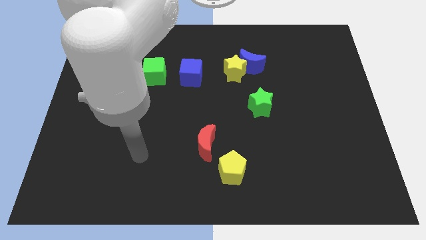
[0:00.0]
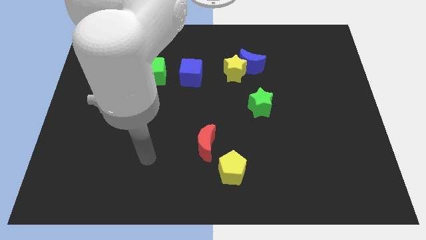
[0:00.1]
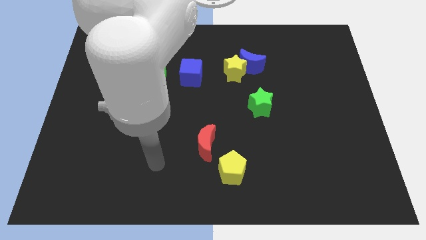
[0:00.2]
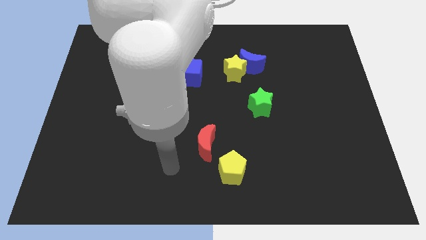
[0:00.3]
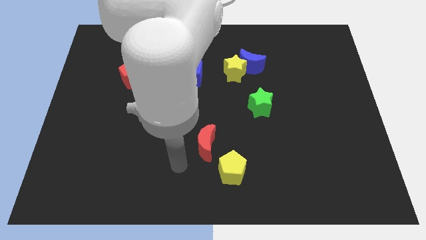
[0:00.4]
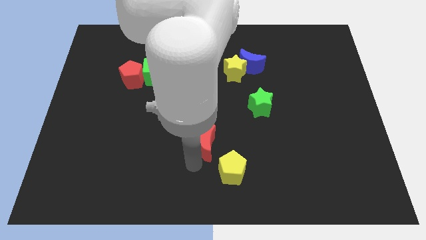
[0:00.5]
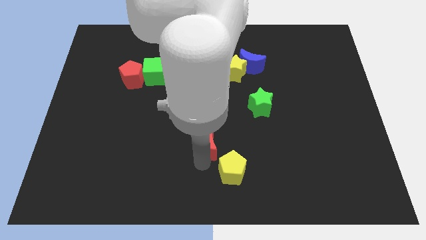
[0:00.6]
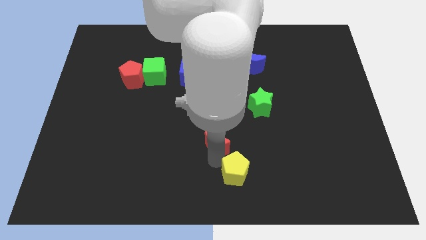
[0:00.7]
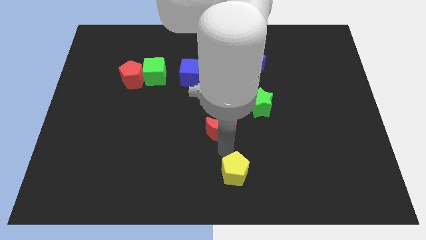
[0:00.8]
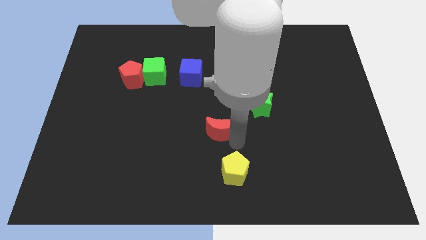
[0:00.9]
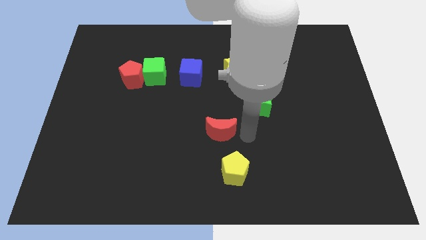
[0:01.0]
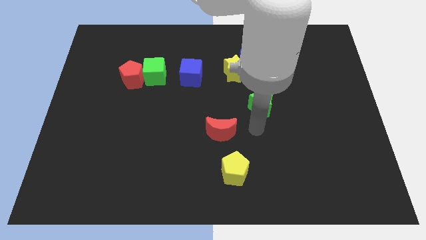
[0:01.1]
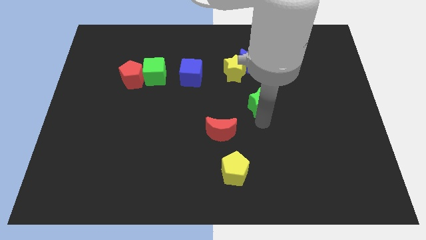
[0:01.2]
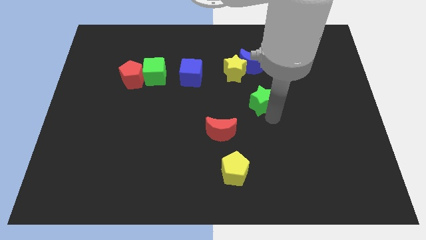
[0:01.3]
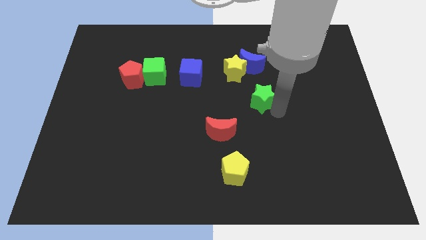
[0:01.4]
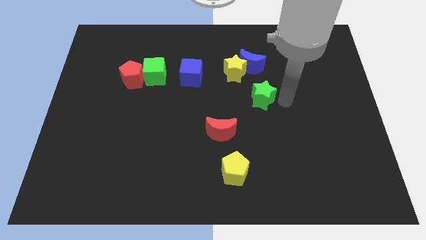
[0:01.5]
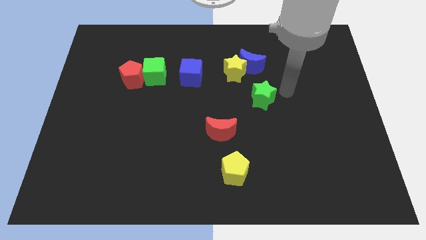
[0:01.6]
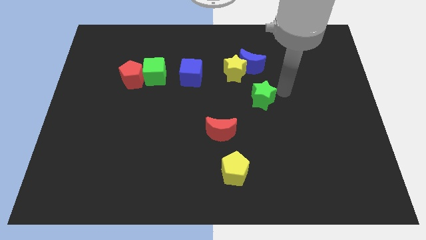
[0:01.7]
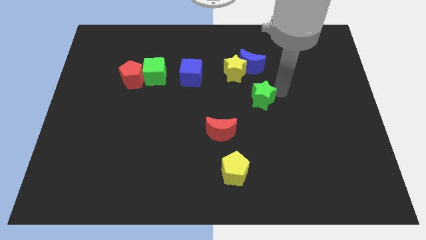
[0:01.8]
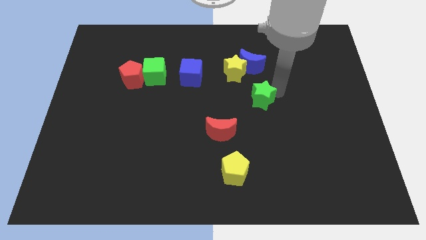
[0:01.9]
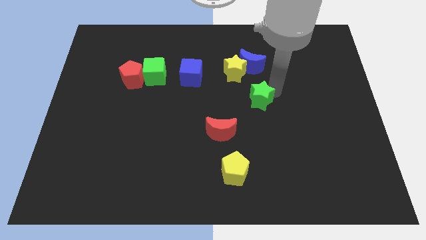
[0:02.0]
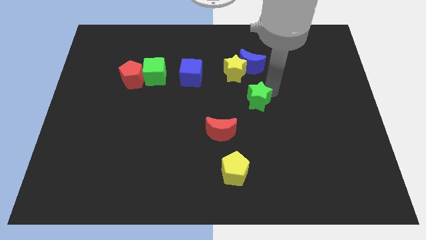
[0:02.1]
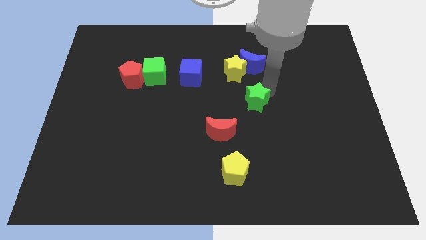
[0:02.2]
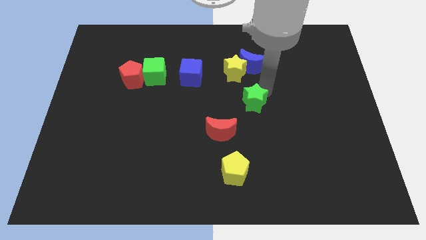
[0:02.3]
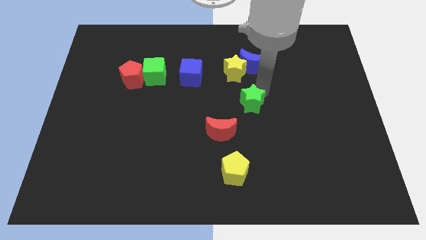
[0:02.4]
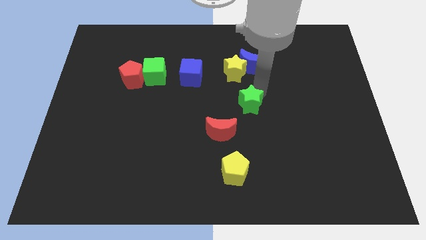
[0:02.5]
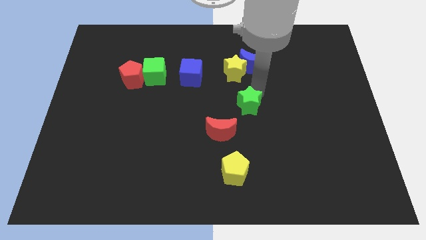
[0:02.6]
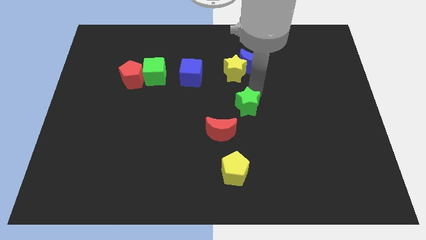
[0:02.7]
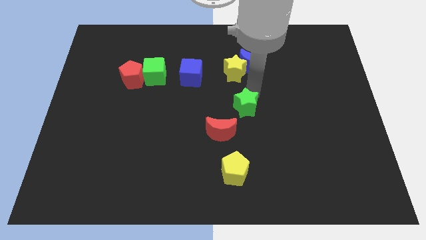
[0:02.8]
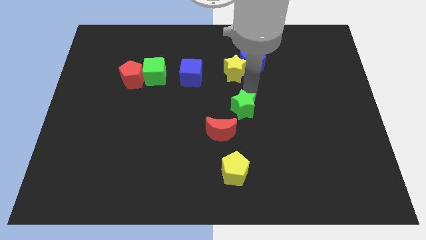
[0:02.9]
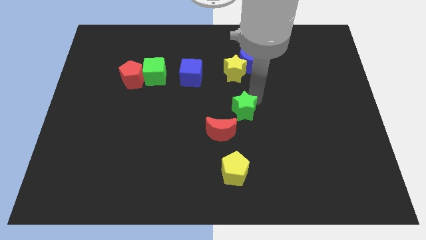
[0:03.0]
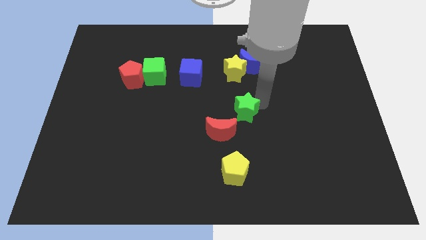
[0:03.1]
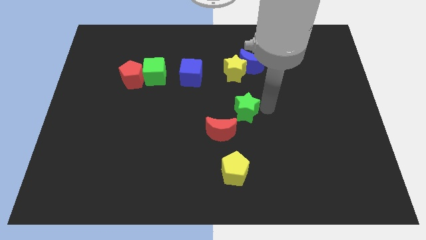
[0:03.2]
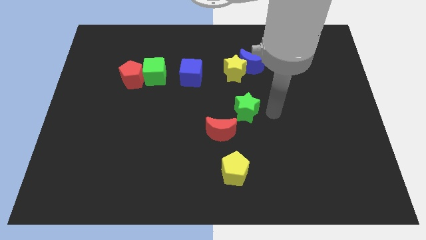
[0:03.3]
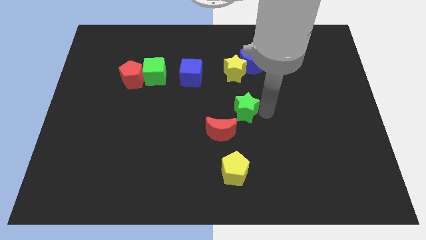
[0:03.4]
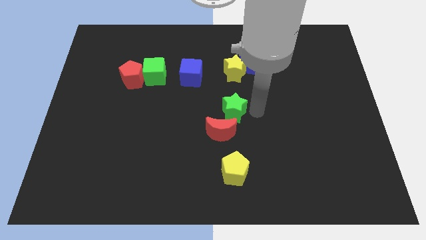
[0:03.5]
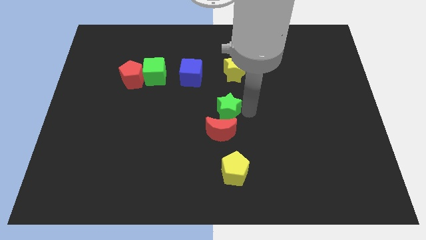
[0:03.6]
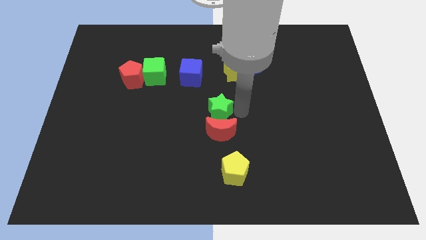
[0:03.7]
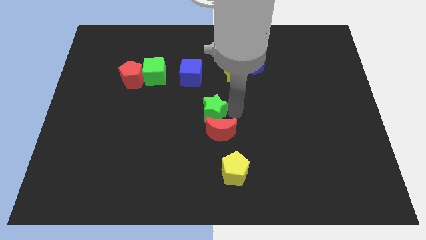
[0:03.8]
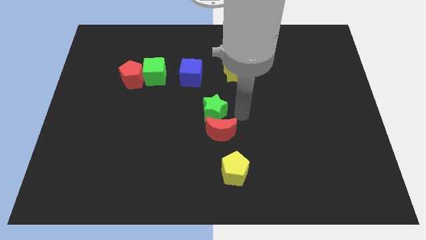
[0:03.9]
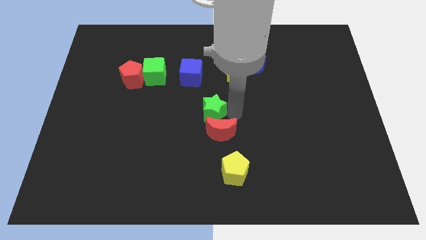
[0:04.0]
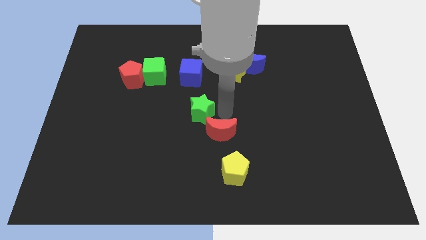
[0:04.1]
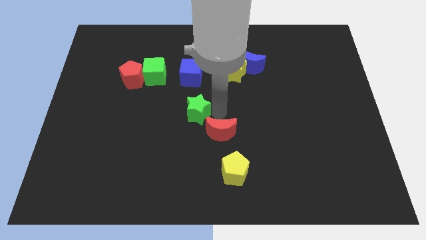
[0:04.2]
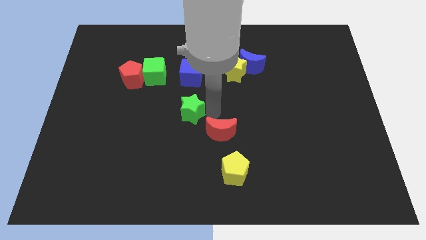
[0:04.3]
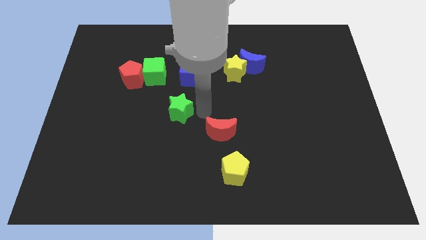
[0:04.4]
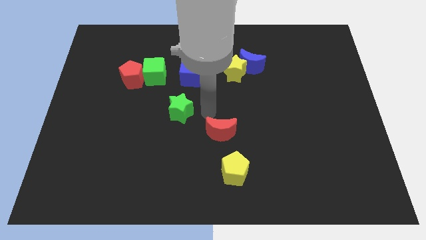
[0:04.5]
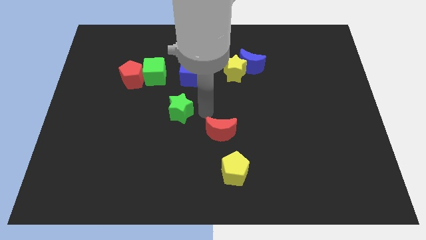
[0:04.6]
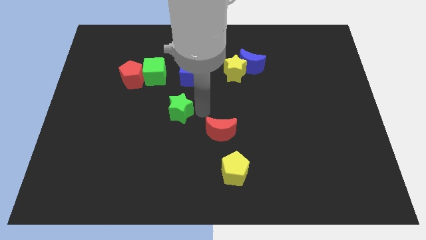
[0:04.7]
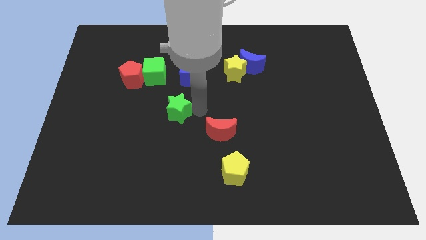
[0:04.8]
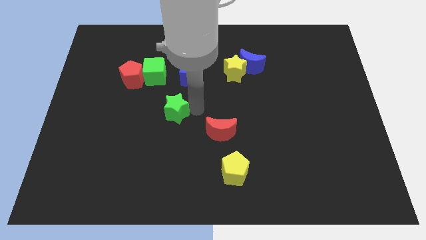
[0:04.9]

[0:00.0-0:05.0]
slide the green star to the left

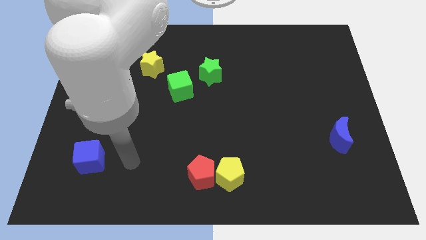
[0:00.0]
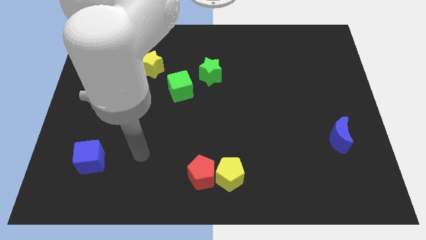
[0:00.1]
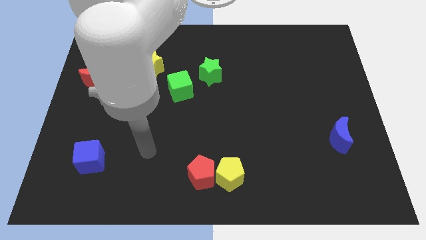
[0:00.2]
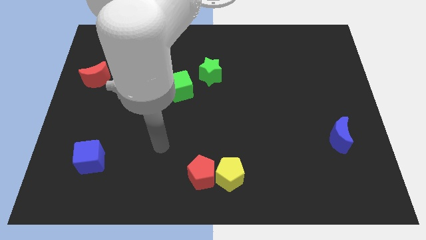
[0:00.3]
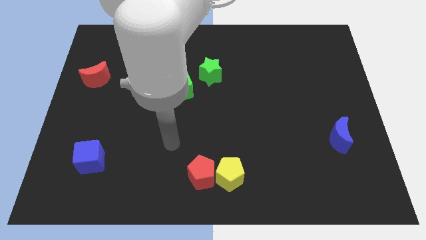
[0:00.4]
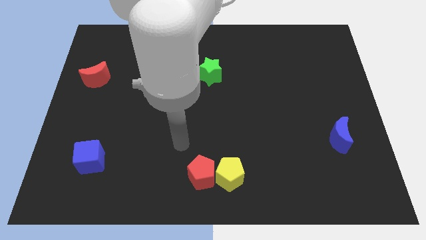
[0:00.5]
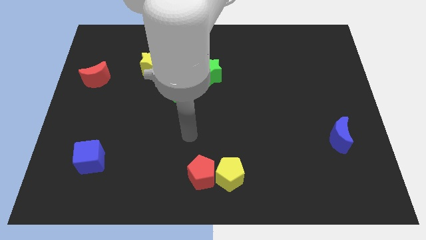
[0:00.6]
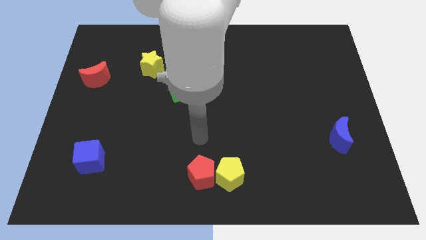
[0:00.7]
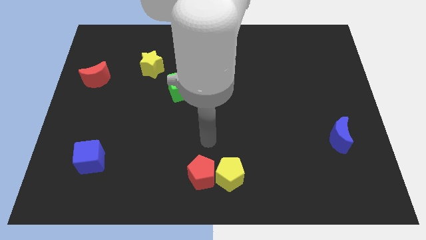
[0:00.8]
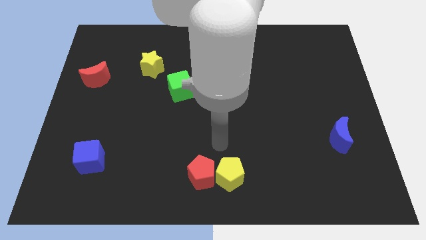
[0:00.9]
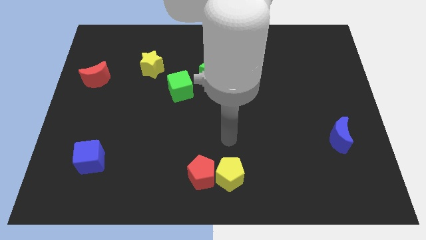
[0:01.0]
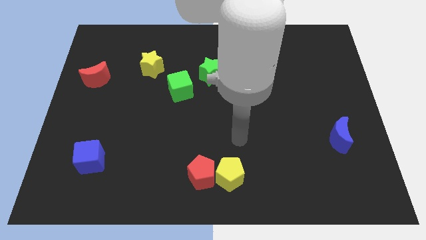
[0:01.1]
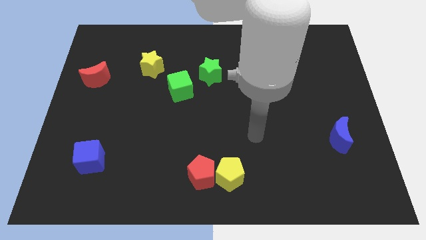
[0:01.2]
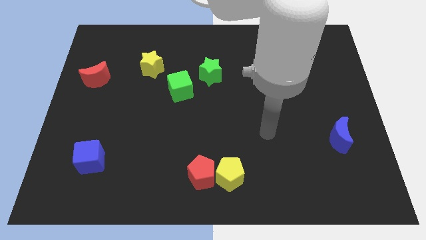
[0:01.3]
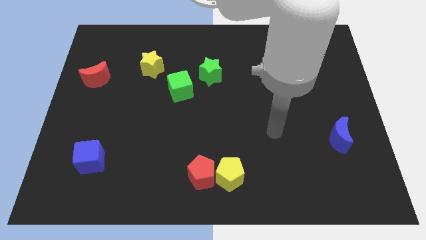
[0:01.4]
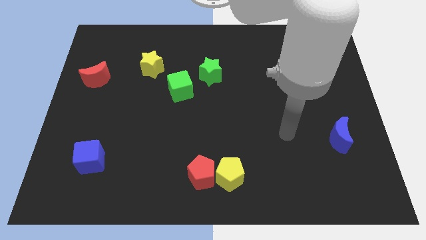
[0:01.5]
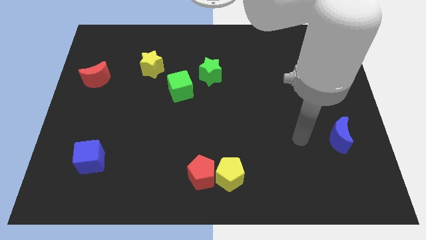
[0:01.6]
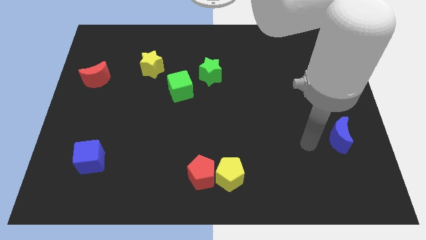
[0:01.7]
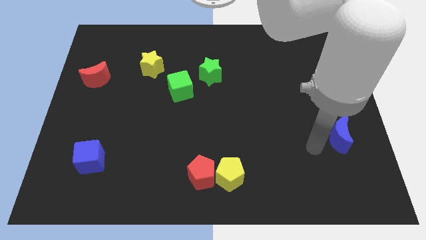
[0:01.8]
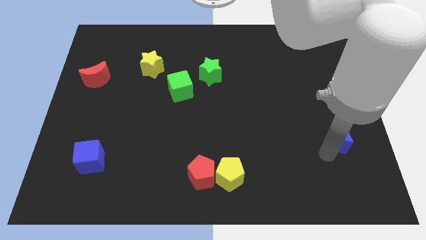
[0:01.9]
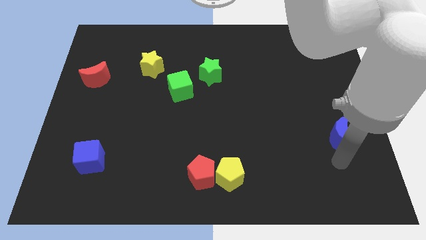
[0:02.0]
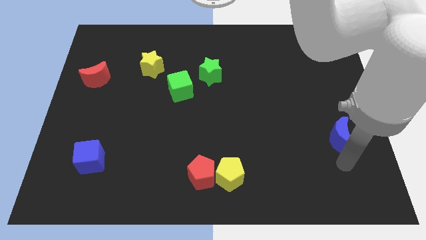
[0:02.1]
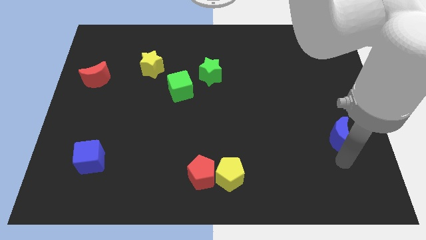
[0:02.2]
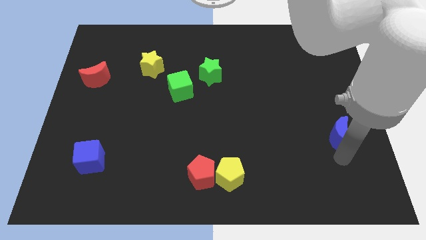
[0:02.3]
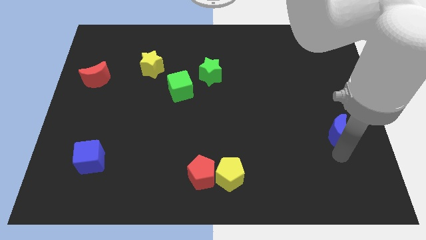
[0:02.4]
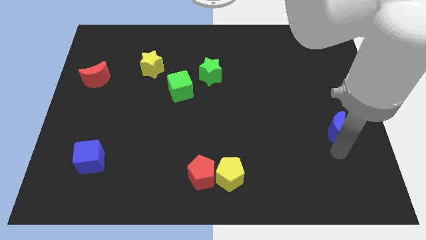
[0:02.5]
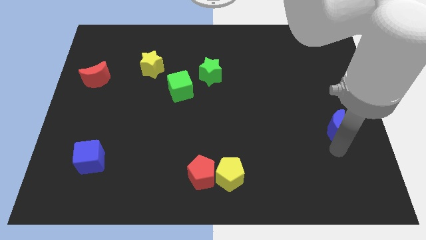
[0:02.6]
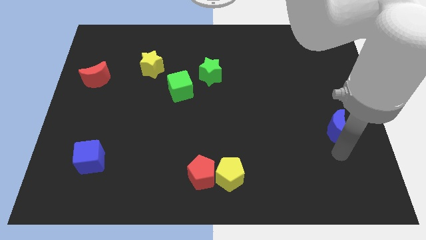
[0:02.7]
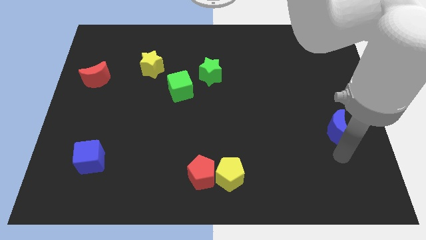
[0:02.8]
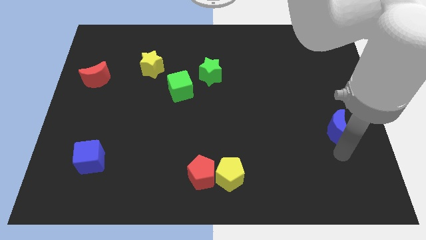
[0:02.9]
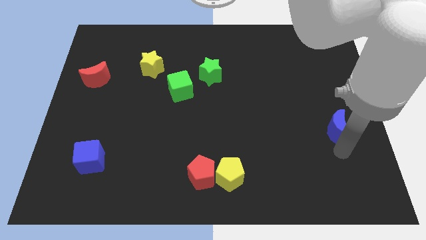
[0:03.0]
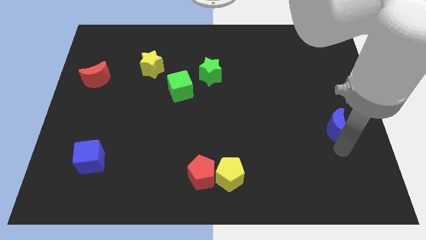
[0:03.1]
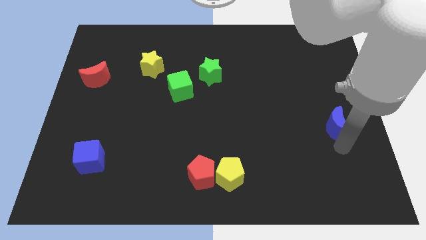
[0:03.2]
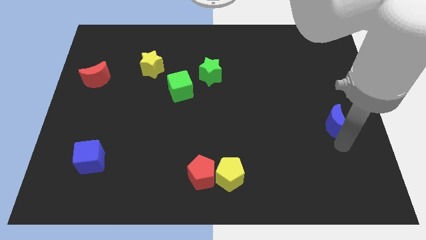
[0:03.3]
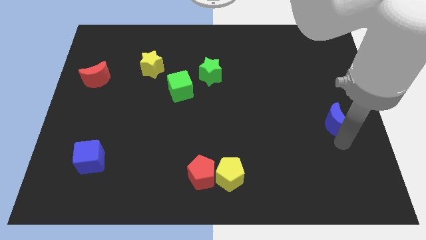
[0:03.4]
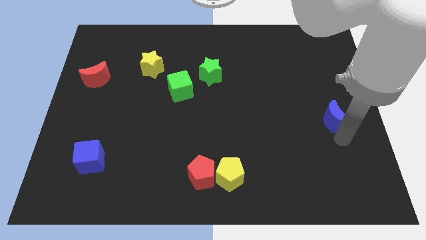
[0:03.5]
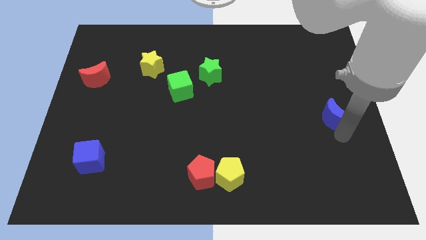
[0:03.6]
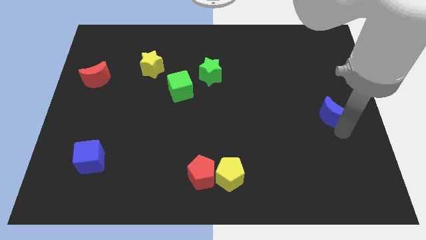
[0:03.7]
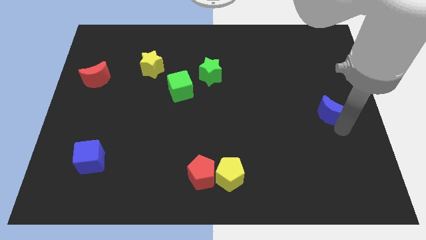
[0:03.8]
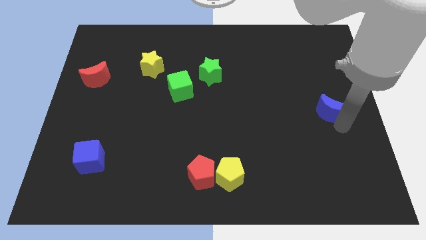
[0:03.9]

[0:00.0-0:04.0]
slide the blue moon up a bit
